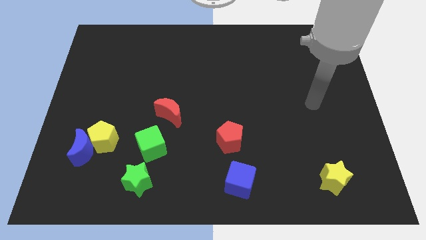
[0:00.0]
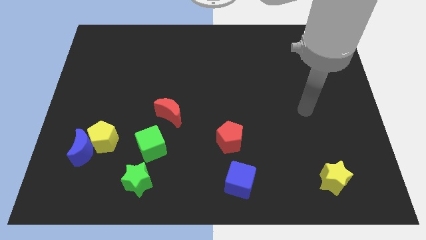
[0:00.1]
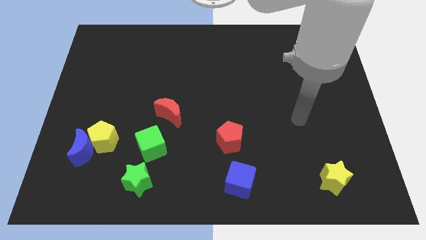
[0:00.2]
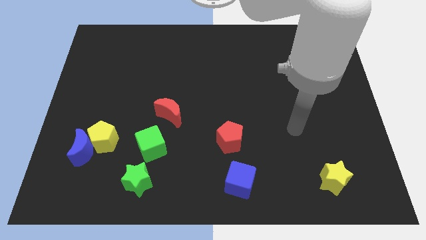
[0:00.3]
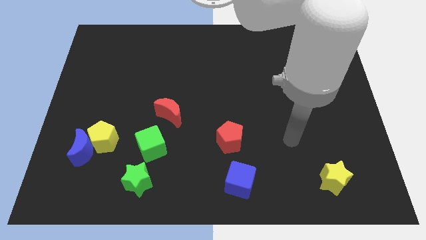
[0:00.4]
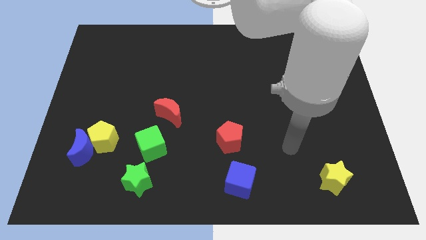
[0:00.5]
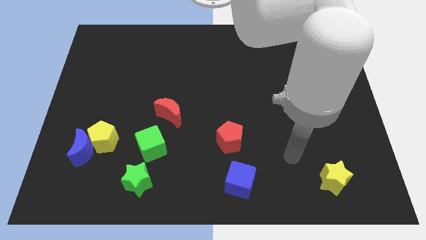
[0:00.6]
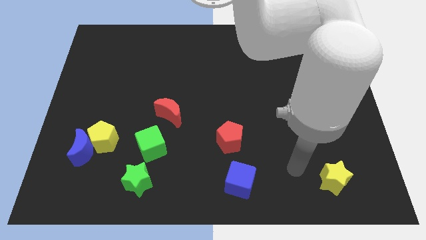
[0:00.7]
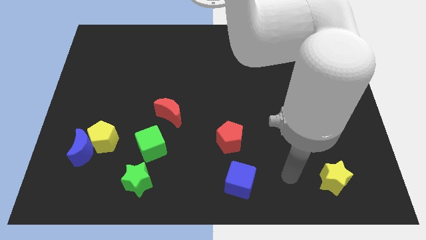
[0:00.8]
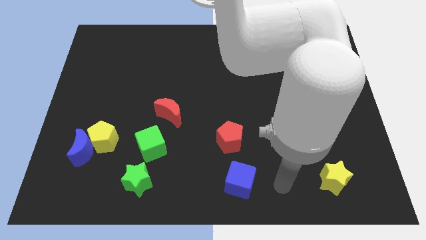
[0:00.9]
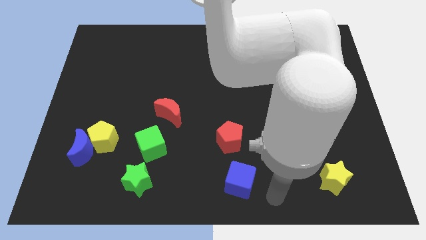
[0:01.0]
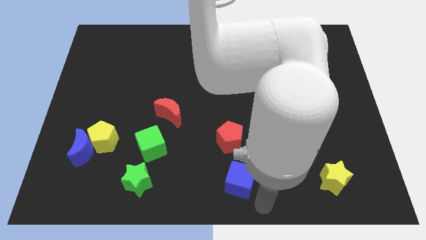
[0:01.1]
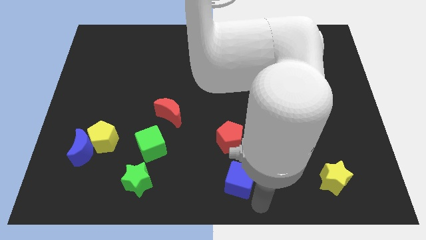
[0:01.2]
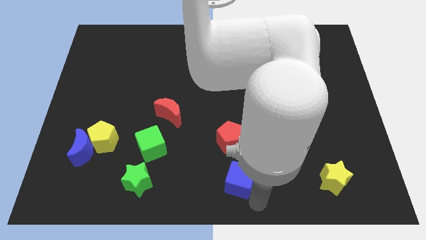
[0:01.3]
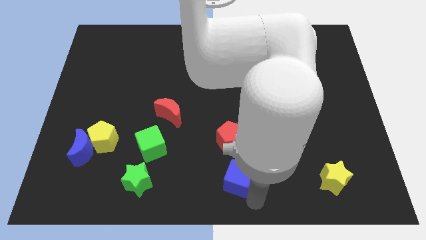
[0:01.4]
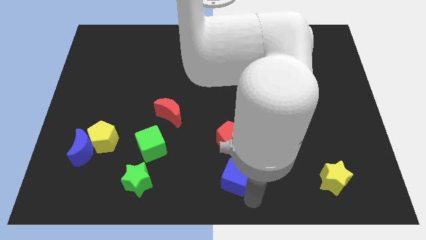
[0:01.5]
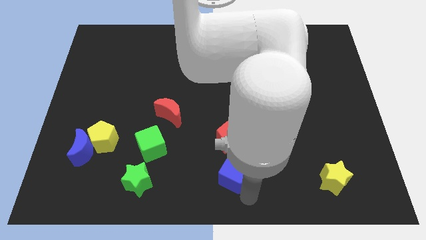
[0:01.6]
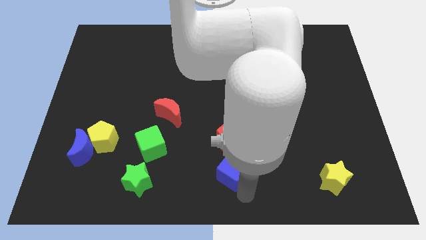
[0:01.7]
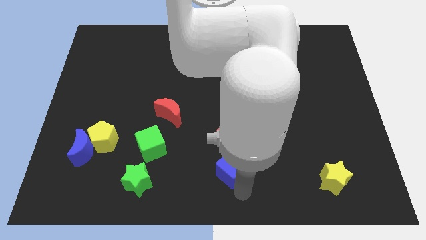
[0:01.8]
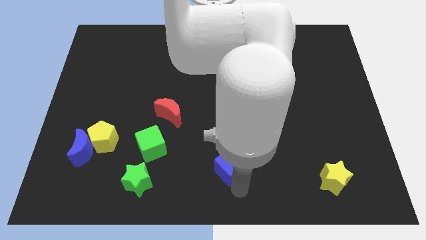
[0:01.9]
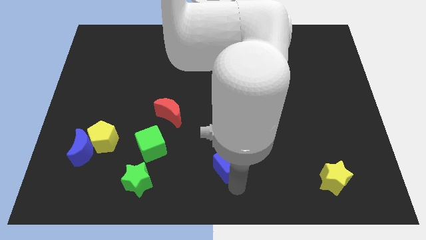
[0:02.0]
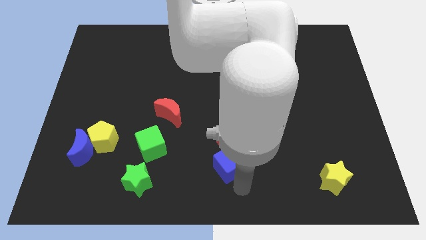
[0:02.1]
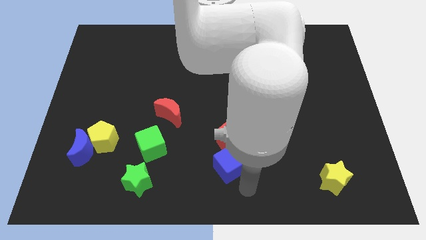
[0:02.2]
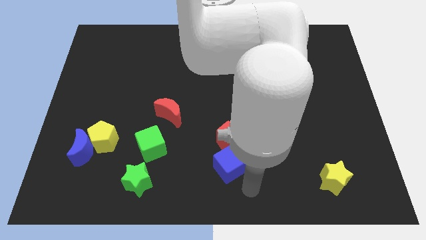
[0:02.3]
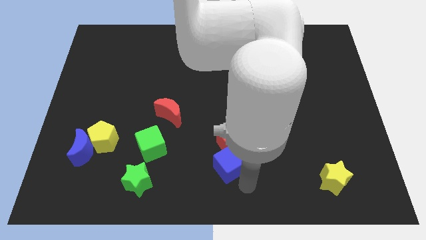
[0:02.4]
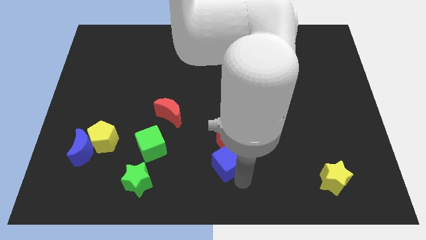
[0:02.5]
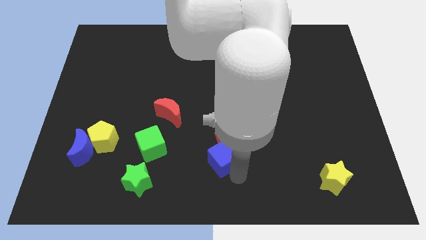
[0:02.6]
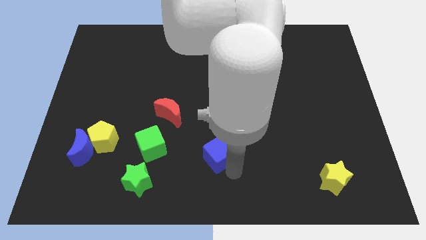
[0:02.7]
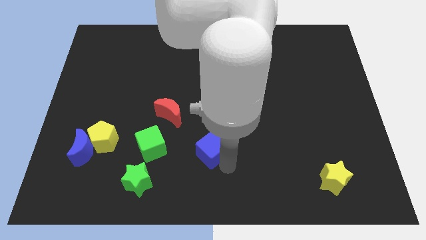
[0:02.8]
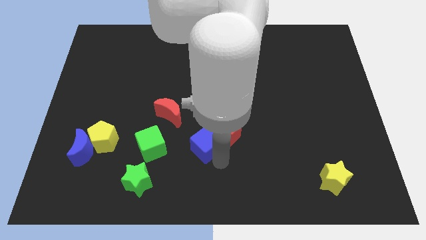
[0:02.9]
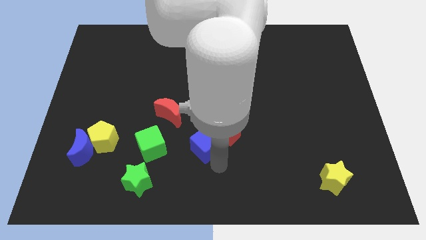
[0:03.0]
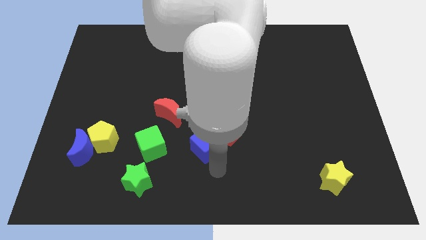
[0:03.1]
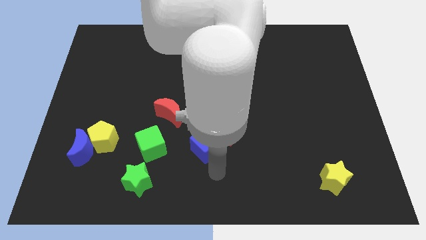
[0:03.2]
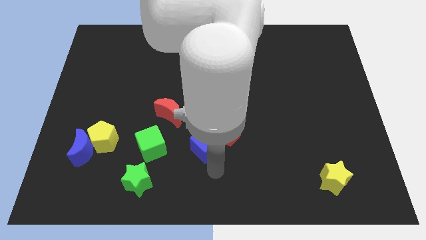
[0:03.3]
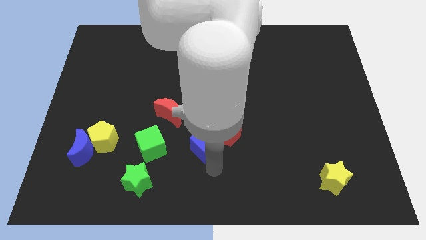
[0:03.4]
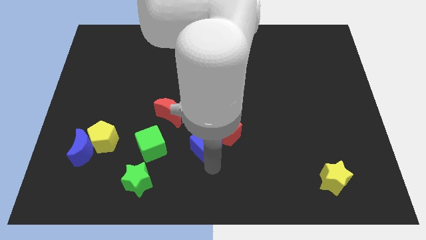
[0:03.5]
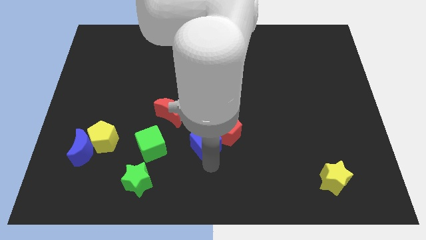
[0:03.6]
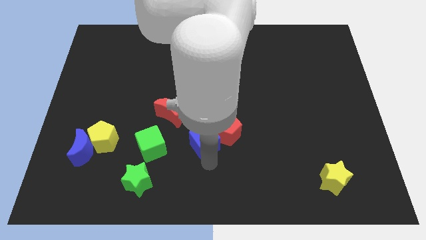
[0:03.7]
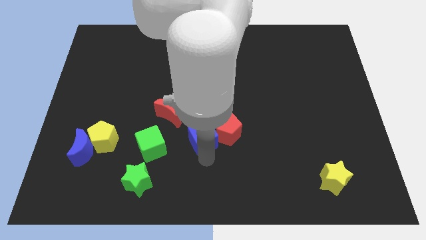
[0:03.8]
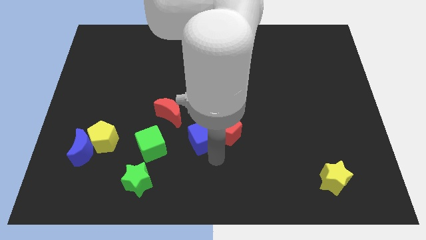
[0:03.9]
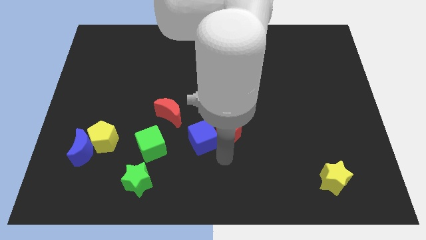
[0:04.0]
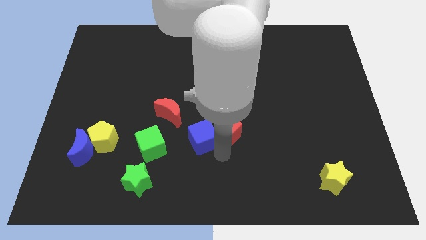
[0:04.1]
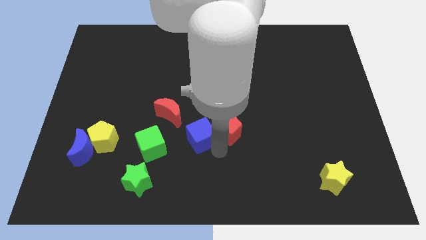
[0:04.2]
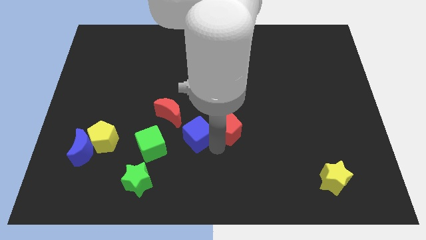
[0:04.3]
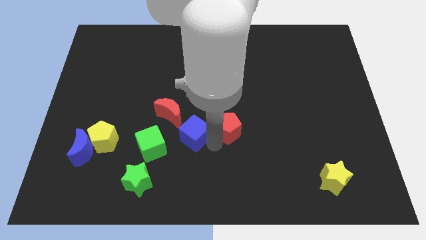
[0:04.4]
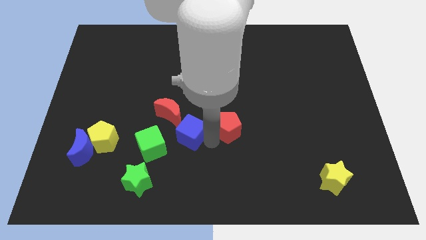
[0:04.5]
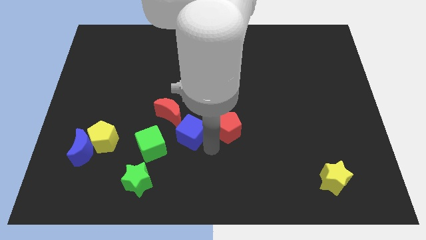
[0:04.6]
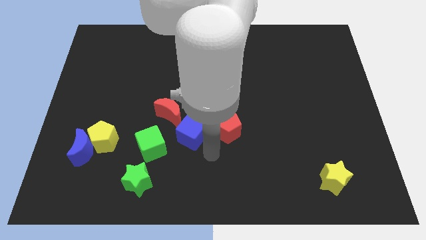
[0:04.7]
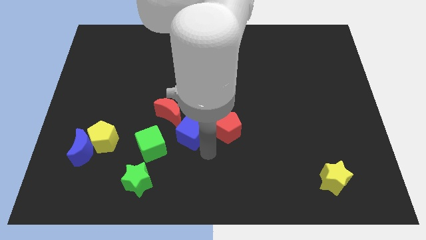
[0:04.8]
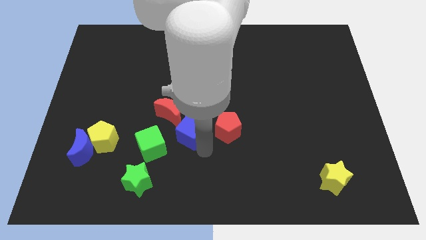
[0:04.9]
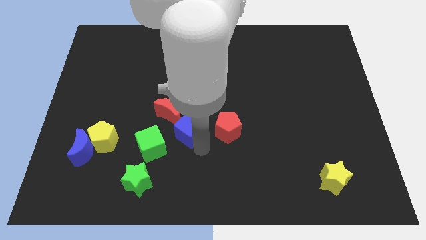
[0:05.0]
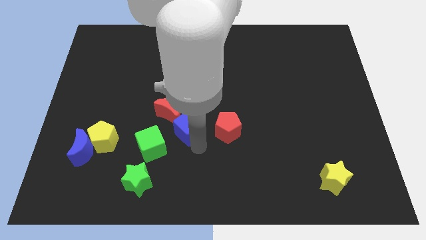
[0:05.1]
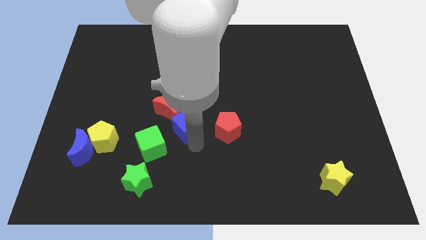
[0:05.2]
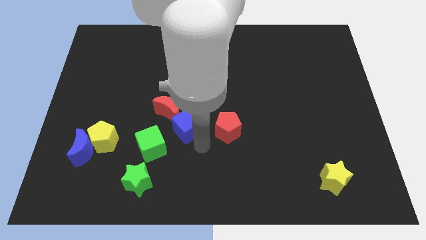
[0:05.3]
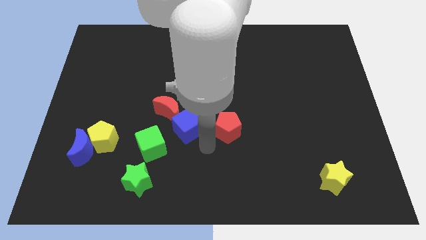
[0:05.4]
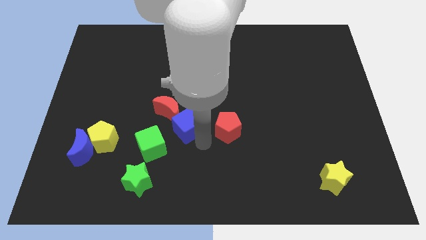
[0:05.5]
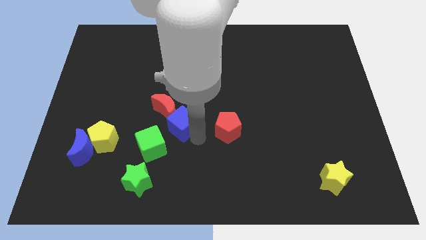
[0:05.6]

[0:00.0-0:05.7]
push the blue cube to the red moon

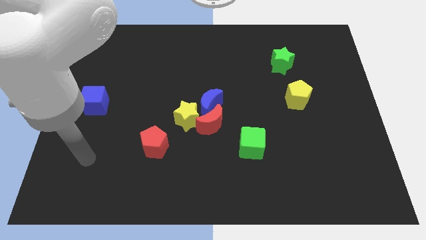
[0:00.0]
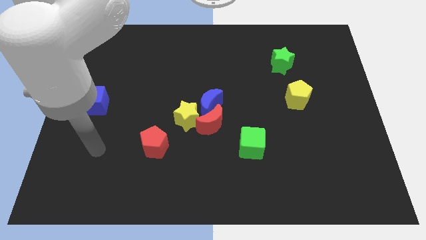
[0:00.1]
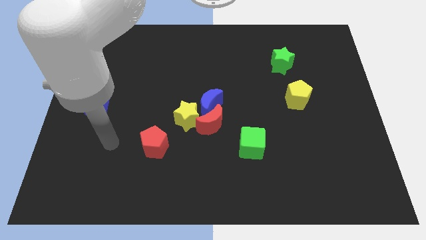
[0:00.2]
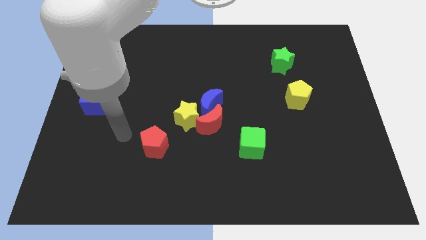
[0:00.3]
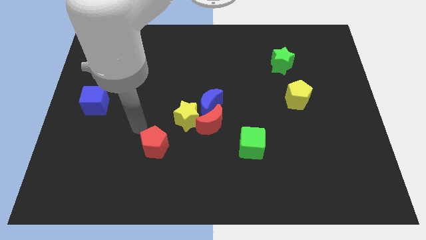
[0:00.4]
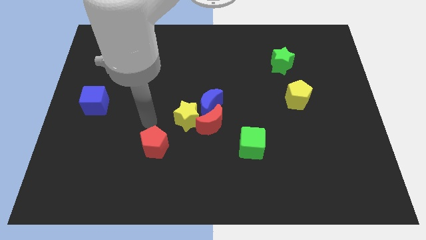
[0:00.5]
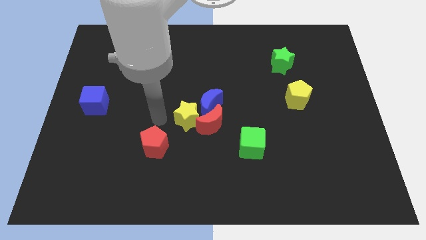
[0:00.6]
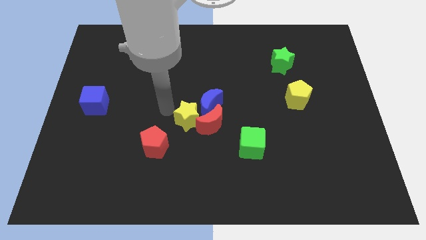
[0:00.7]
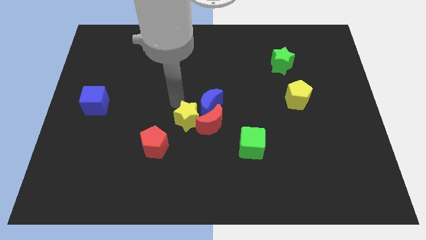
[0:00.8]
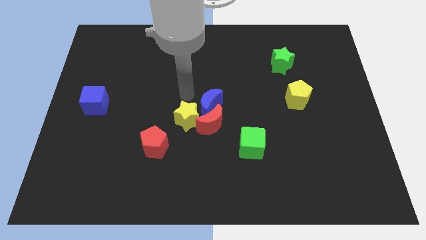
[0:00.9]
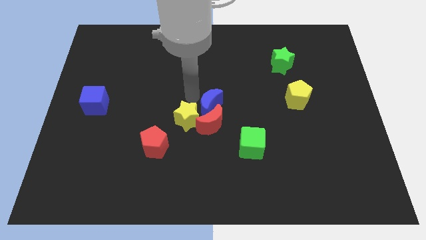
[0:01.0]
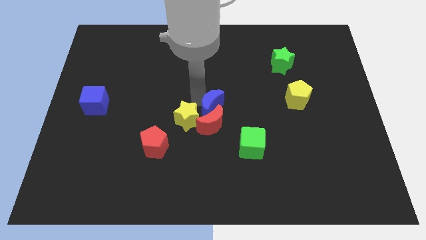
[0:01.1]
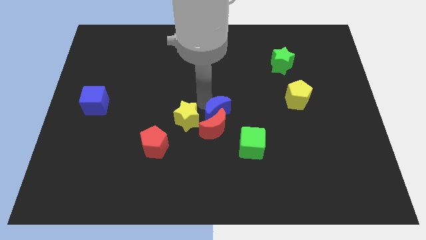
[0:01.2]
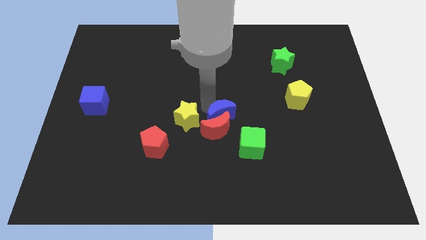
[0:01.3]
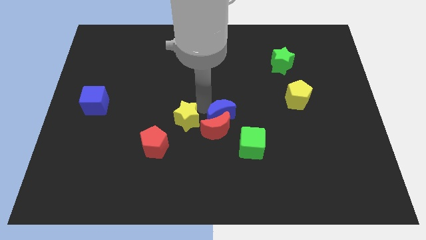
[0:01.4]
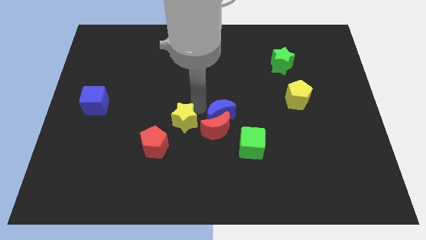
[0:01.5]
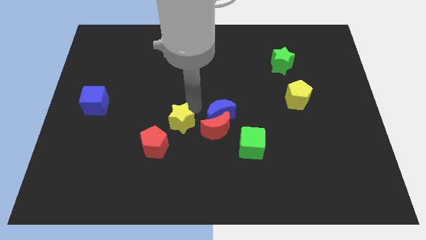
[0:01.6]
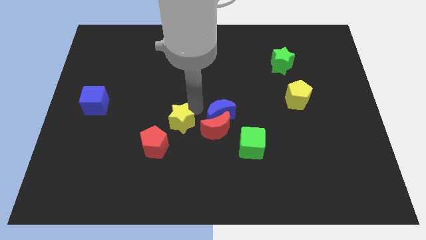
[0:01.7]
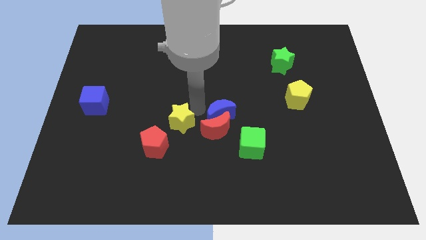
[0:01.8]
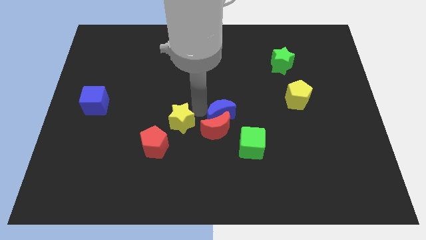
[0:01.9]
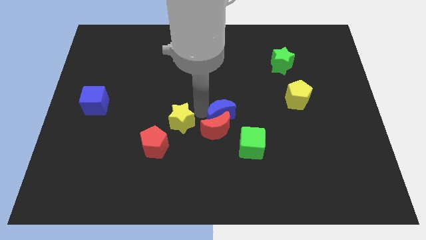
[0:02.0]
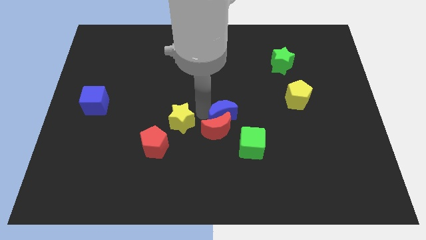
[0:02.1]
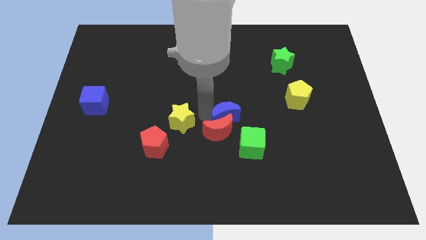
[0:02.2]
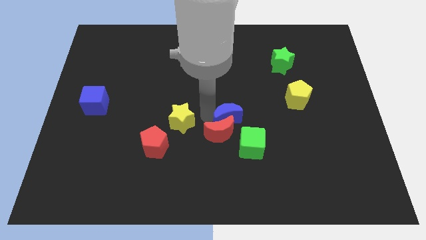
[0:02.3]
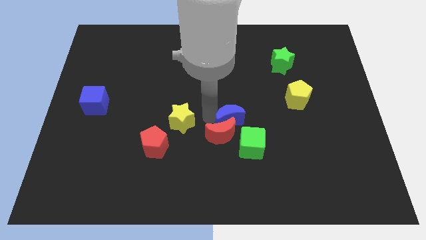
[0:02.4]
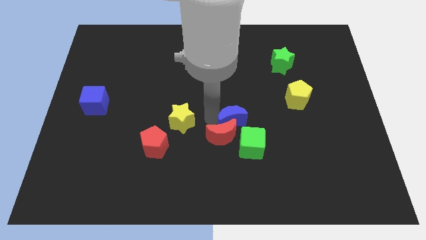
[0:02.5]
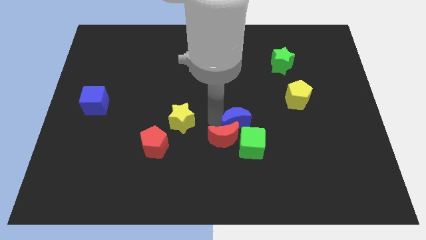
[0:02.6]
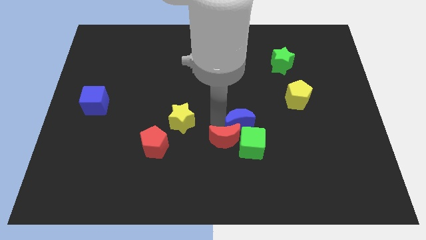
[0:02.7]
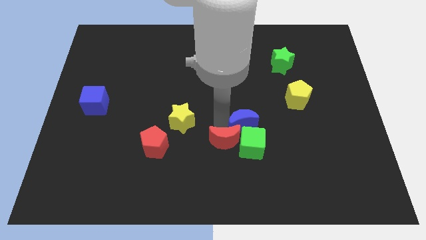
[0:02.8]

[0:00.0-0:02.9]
push the blue moon to the green cube

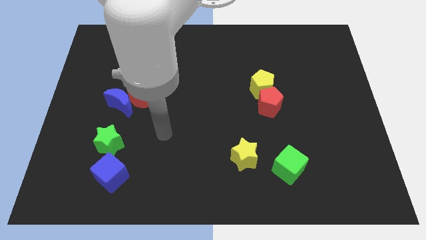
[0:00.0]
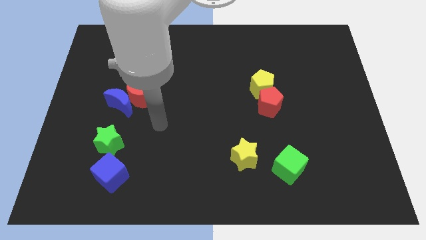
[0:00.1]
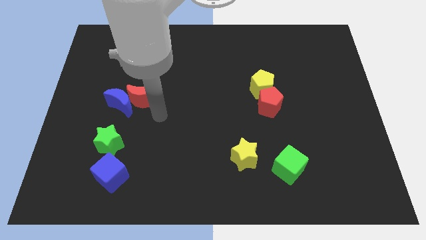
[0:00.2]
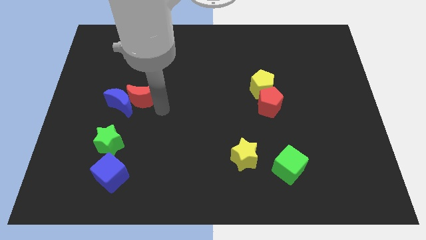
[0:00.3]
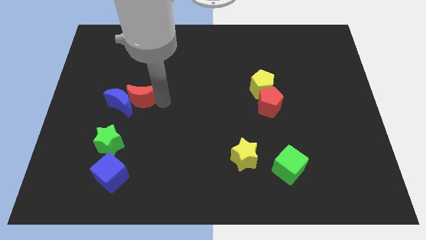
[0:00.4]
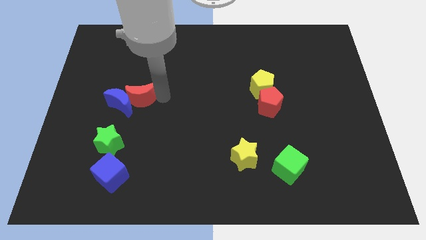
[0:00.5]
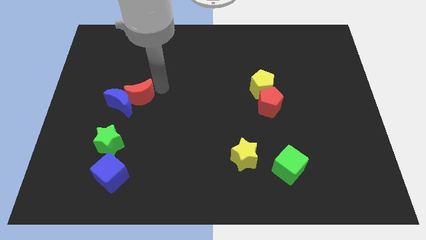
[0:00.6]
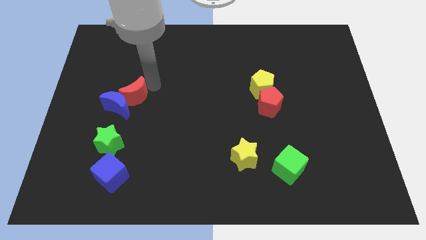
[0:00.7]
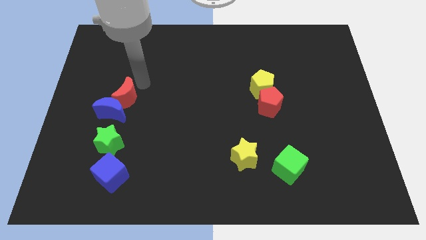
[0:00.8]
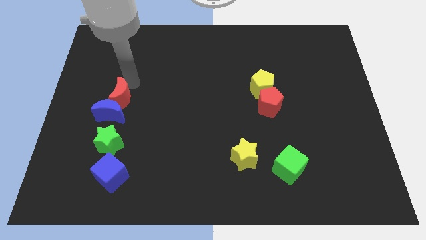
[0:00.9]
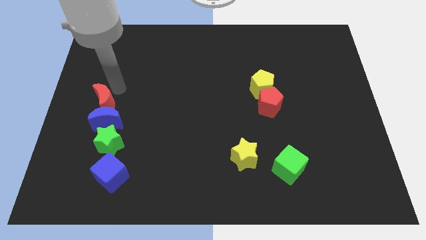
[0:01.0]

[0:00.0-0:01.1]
move the blue moon towards the green star
